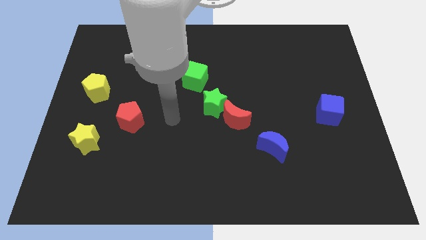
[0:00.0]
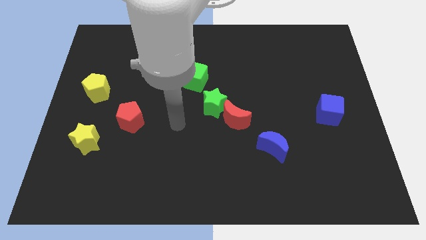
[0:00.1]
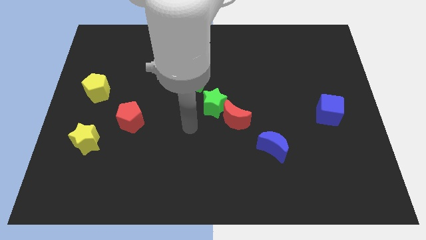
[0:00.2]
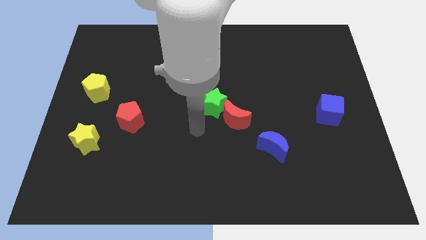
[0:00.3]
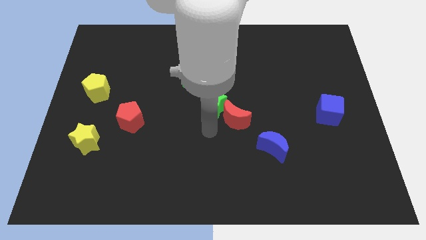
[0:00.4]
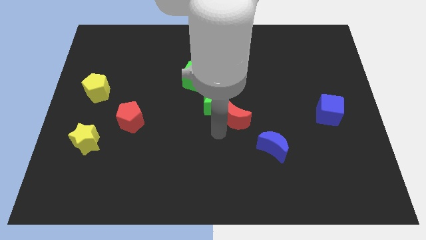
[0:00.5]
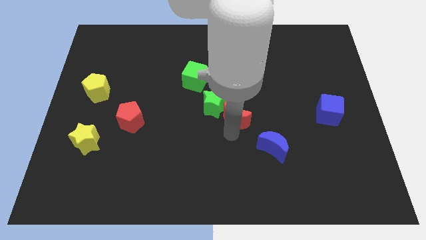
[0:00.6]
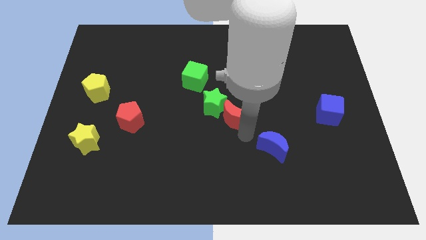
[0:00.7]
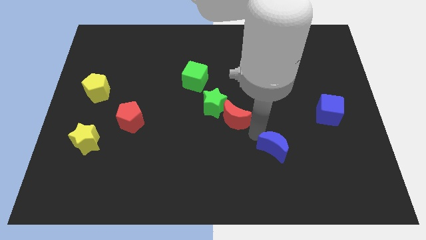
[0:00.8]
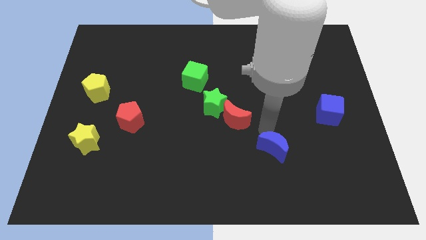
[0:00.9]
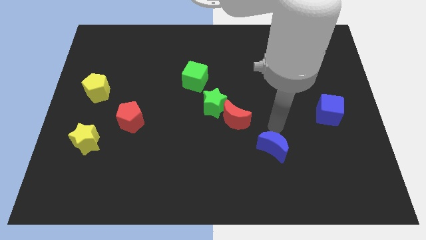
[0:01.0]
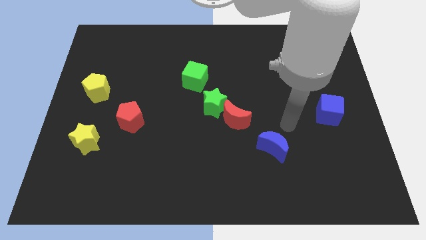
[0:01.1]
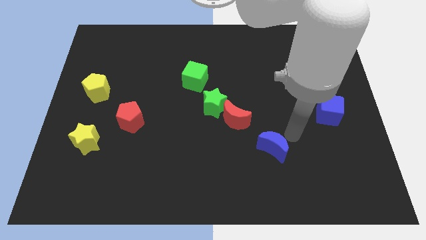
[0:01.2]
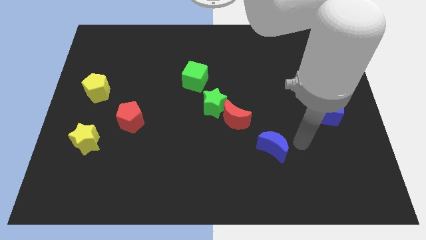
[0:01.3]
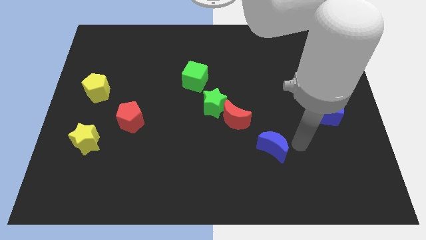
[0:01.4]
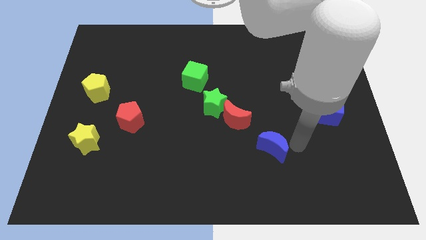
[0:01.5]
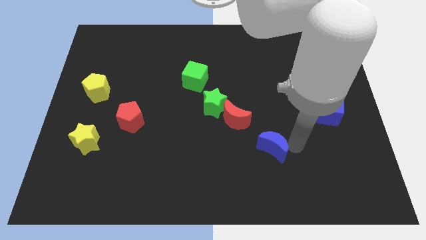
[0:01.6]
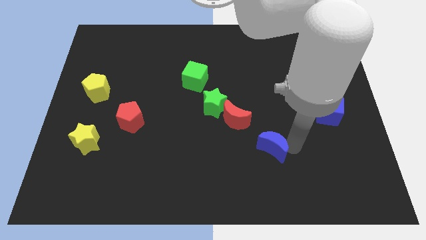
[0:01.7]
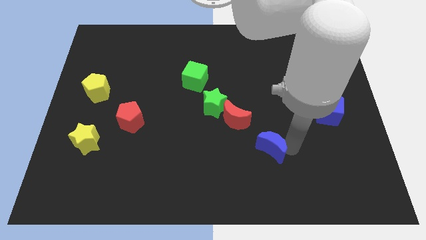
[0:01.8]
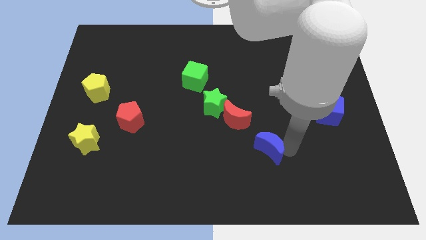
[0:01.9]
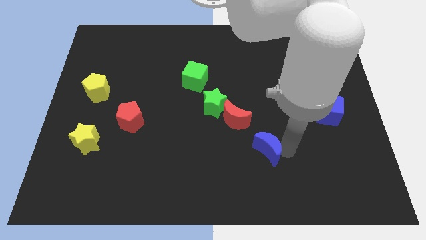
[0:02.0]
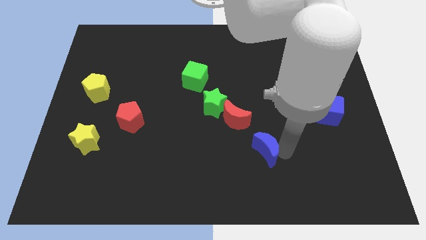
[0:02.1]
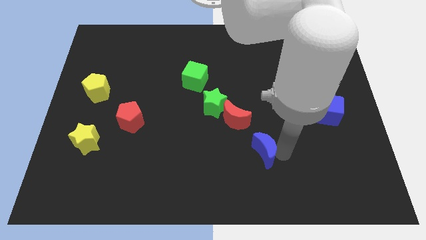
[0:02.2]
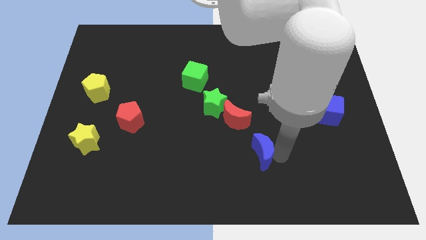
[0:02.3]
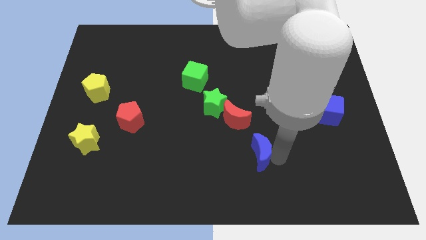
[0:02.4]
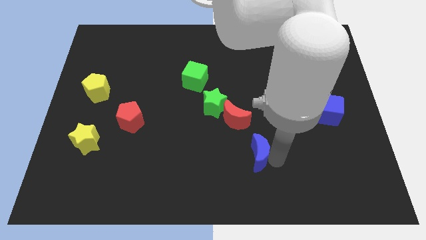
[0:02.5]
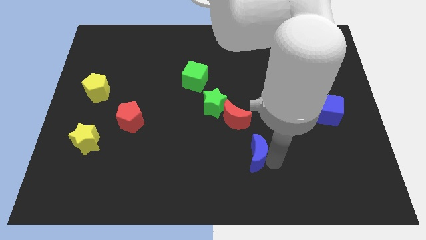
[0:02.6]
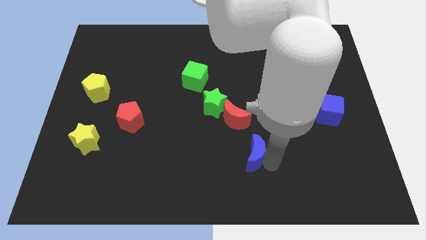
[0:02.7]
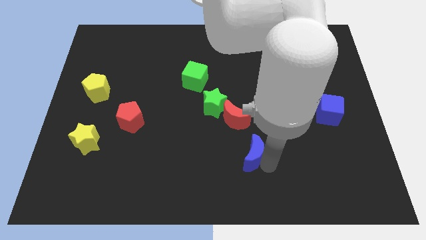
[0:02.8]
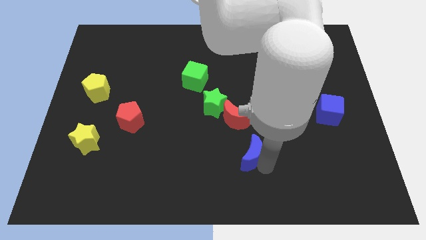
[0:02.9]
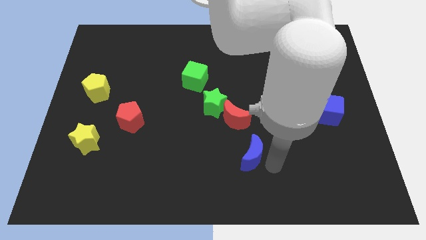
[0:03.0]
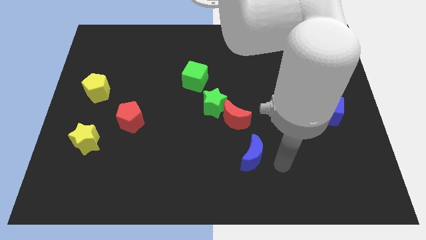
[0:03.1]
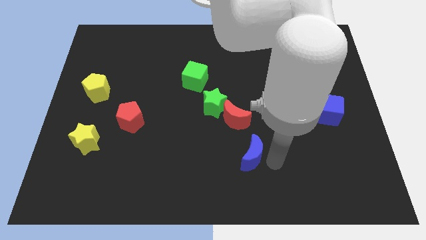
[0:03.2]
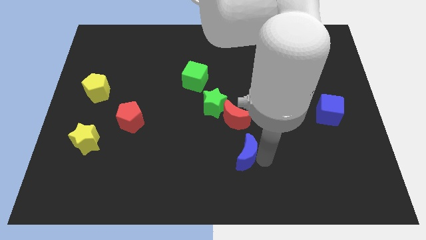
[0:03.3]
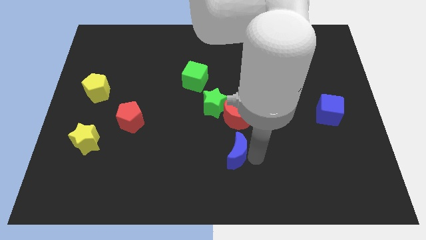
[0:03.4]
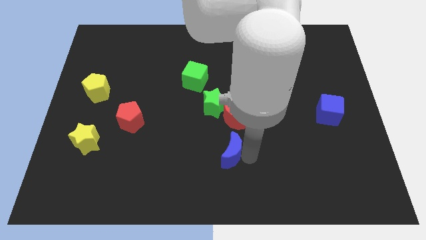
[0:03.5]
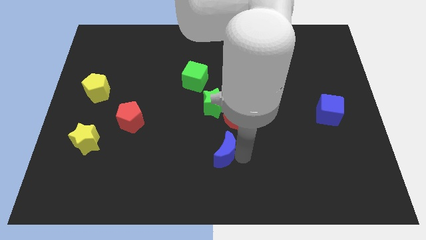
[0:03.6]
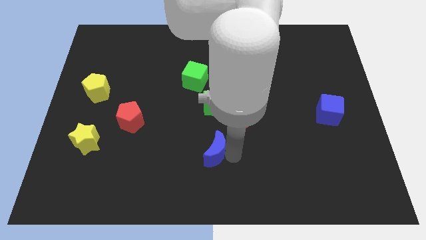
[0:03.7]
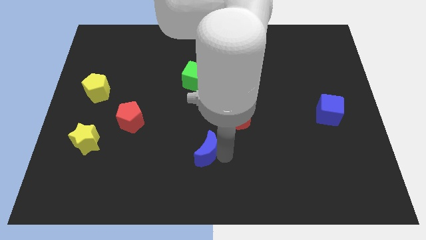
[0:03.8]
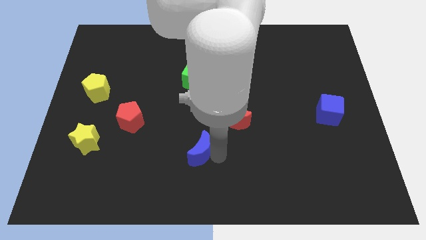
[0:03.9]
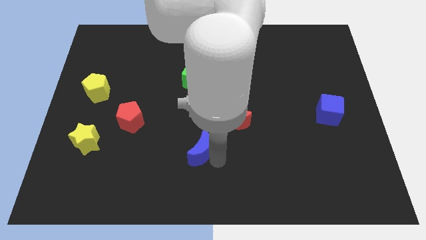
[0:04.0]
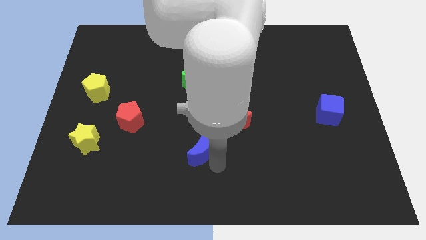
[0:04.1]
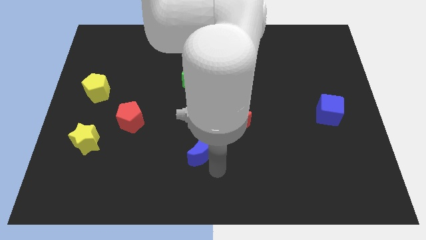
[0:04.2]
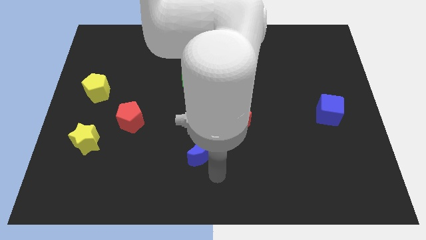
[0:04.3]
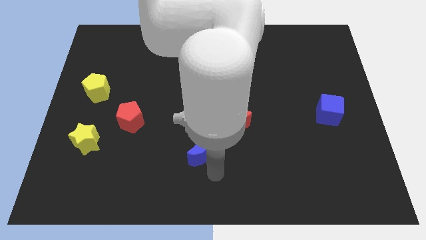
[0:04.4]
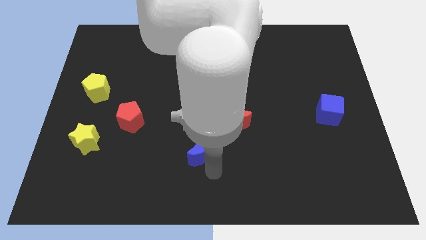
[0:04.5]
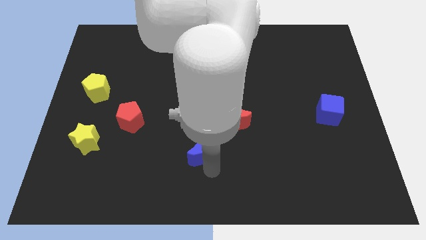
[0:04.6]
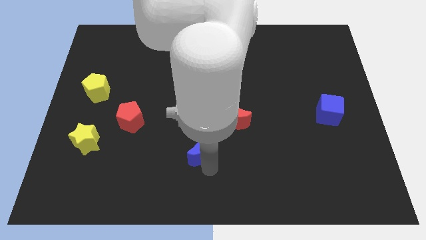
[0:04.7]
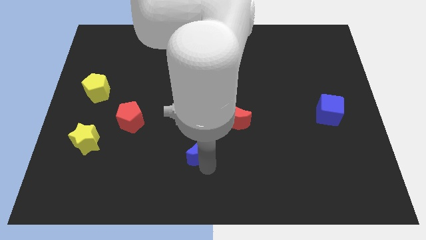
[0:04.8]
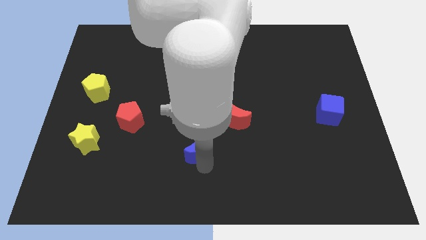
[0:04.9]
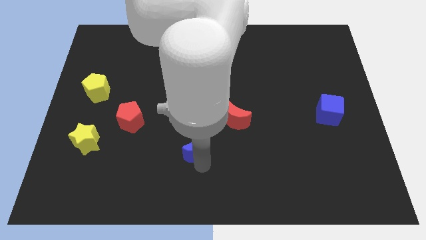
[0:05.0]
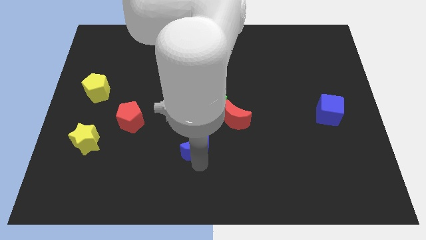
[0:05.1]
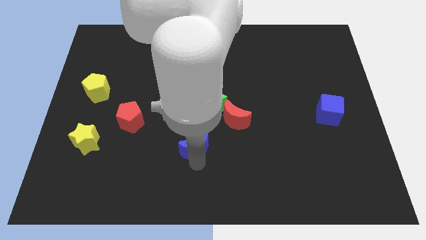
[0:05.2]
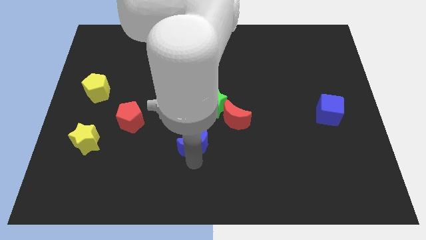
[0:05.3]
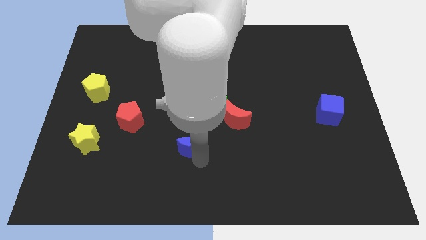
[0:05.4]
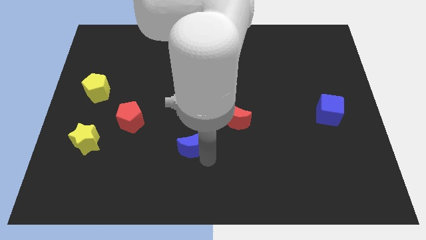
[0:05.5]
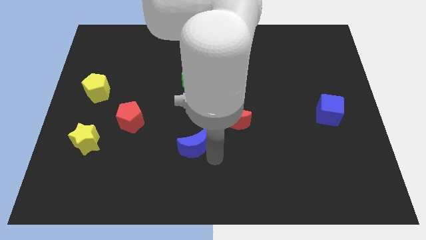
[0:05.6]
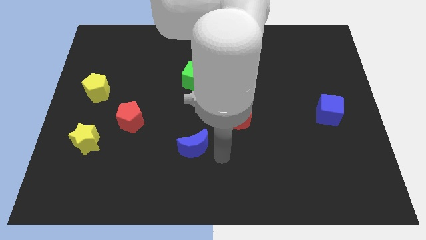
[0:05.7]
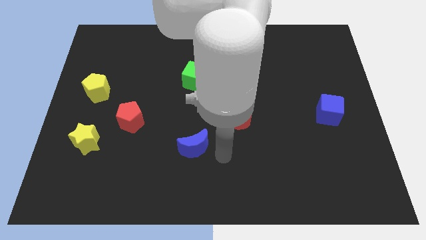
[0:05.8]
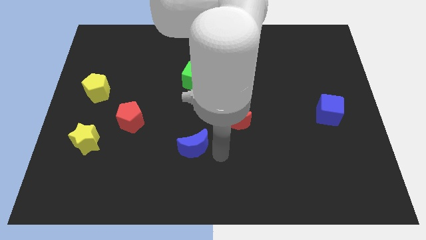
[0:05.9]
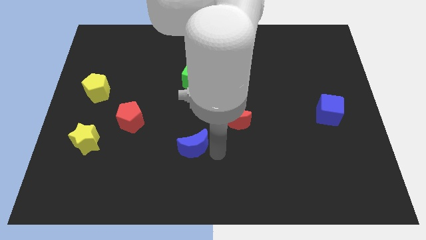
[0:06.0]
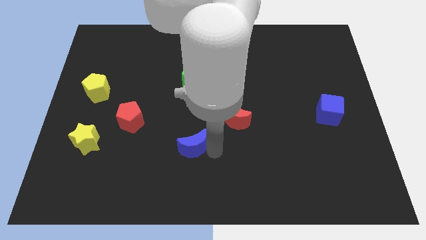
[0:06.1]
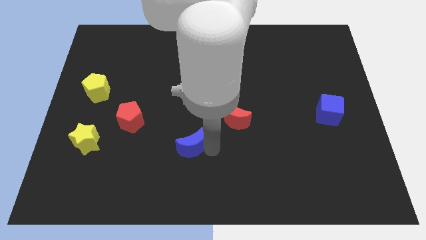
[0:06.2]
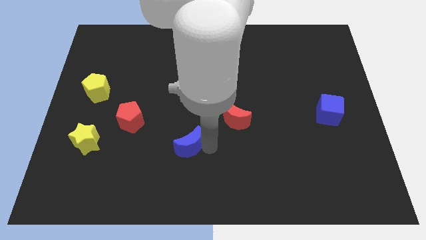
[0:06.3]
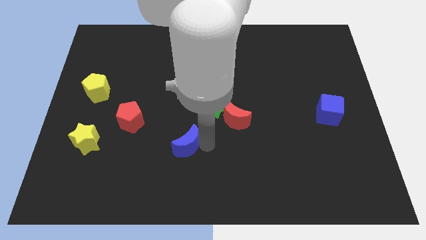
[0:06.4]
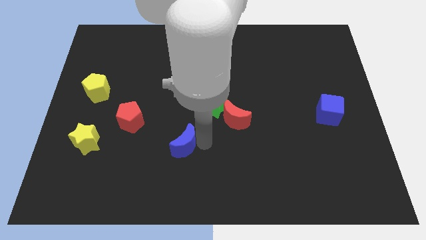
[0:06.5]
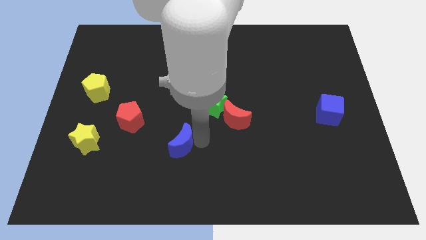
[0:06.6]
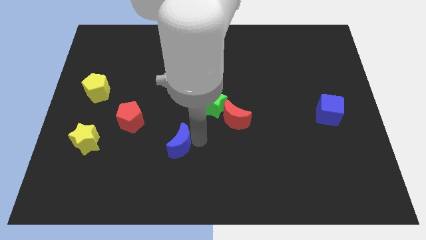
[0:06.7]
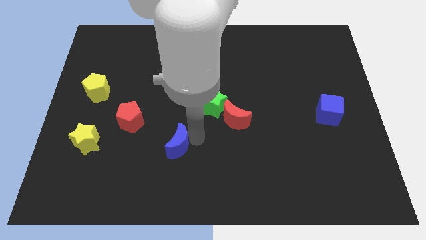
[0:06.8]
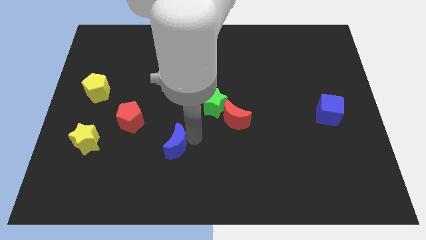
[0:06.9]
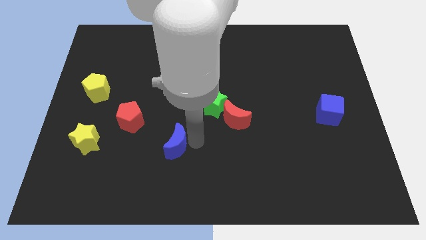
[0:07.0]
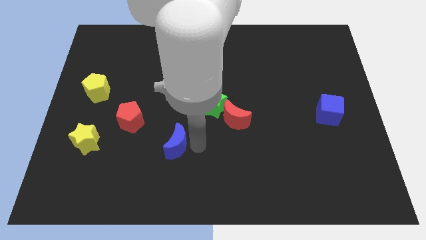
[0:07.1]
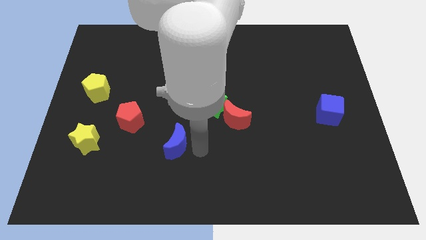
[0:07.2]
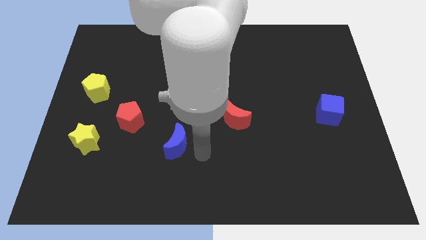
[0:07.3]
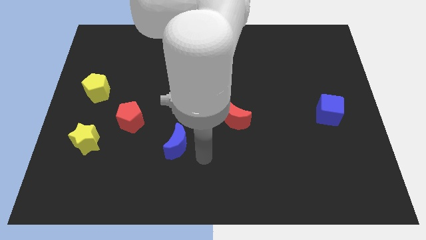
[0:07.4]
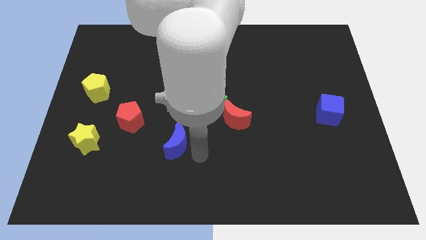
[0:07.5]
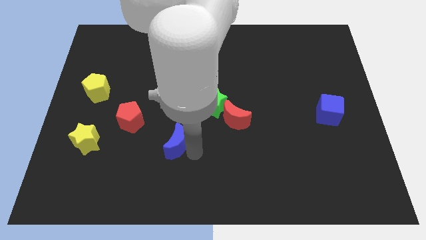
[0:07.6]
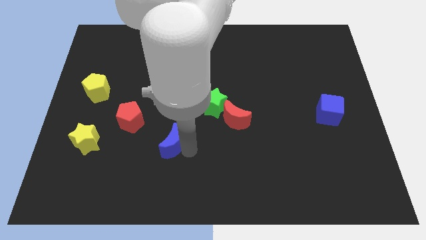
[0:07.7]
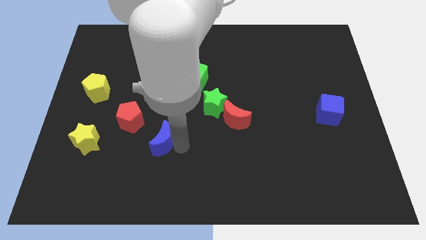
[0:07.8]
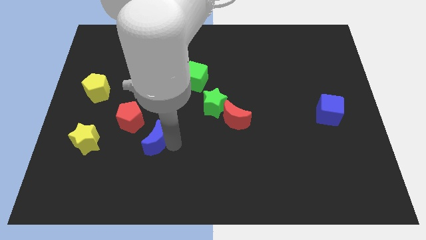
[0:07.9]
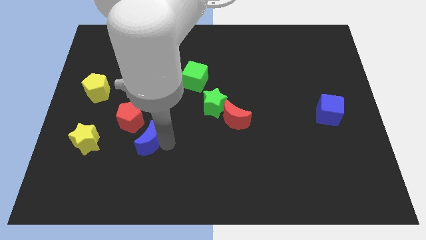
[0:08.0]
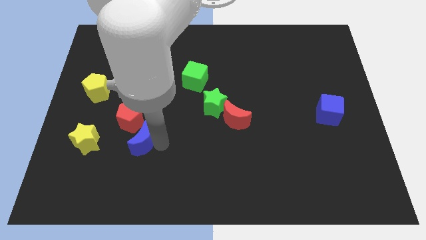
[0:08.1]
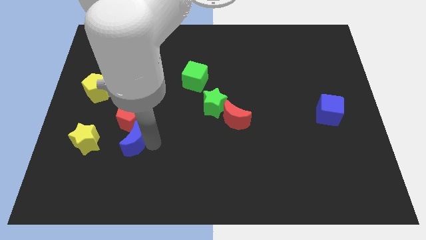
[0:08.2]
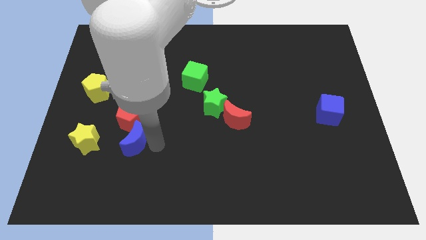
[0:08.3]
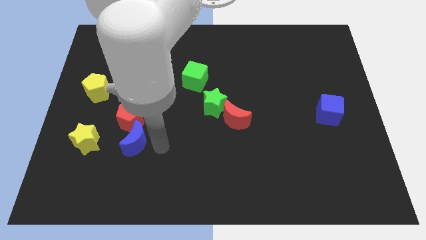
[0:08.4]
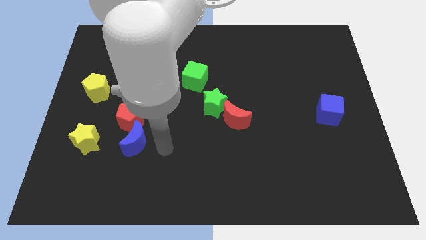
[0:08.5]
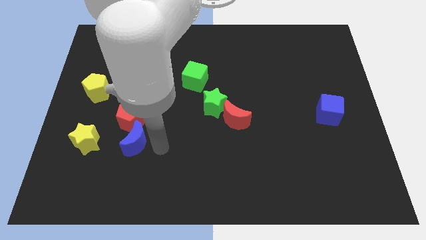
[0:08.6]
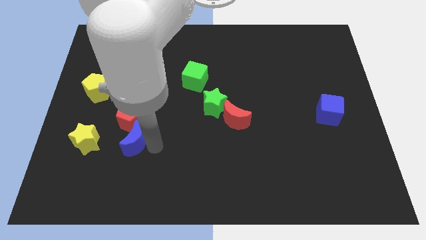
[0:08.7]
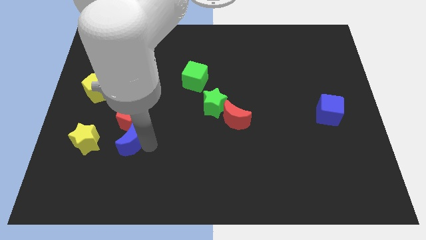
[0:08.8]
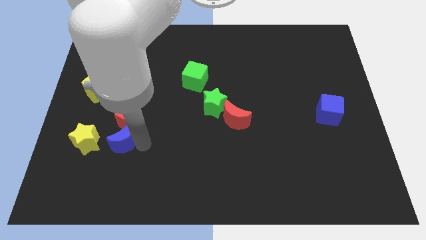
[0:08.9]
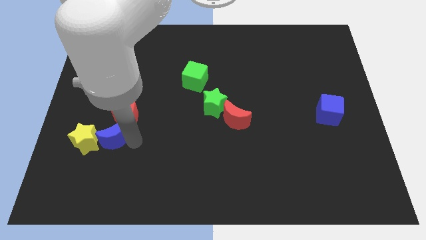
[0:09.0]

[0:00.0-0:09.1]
put the blue moon close to the yellow star
